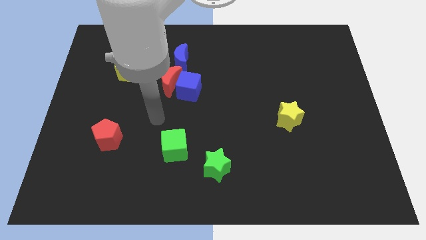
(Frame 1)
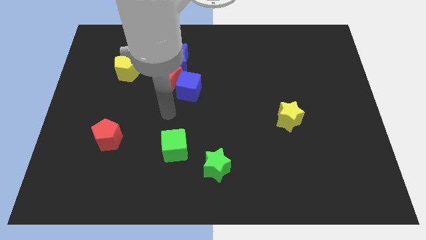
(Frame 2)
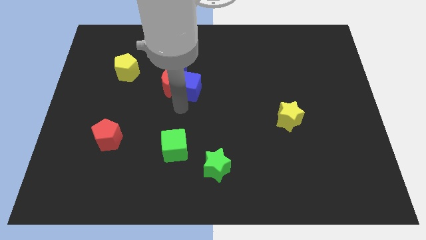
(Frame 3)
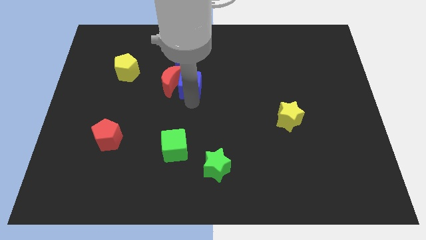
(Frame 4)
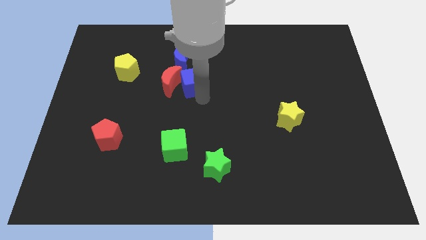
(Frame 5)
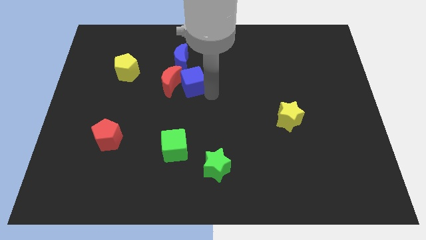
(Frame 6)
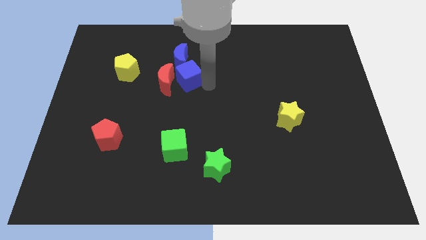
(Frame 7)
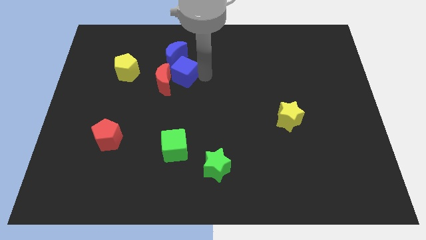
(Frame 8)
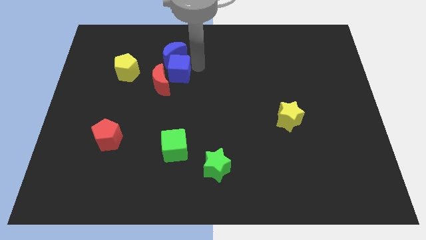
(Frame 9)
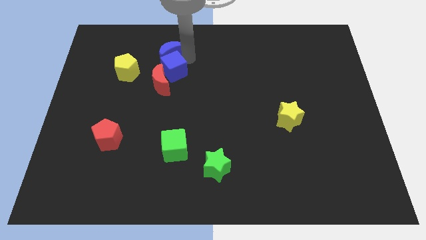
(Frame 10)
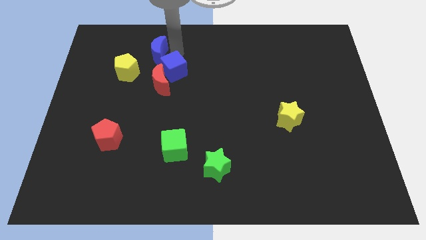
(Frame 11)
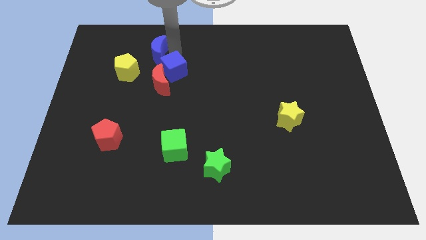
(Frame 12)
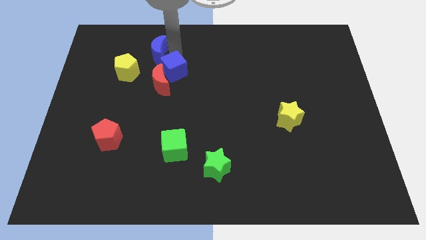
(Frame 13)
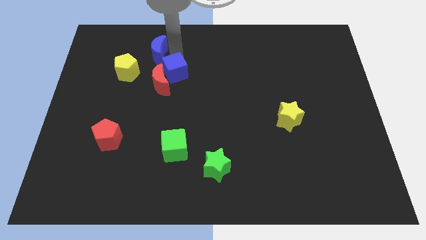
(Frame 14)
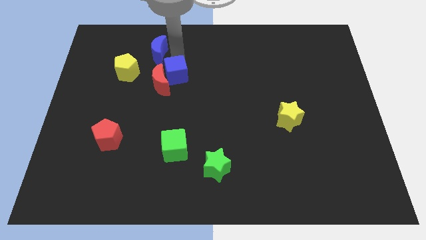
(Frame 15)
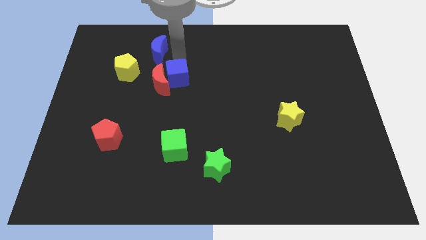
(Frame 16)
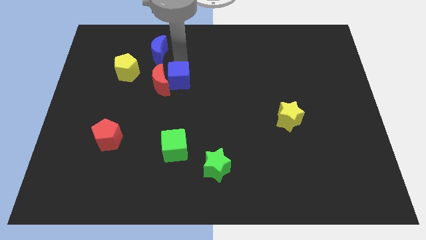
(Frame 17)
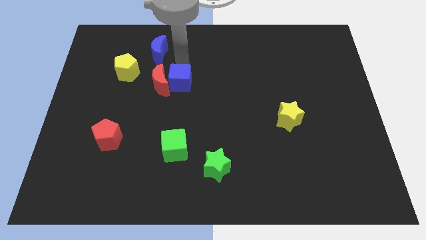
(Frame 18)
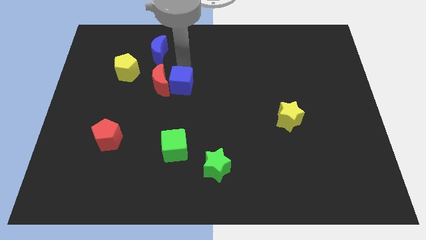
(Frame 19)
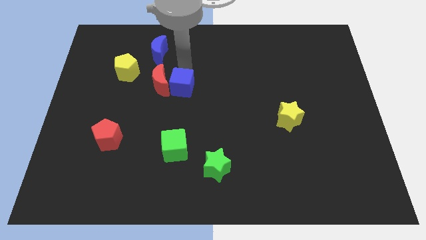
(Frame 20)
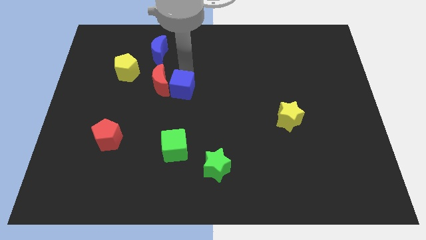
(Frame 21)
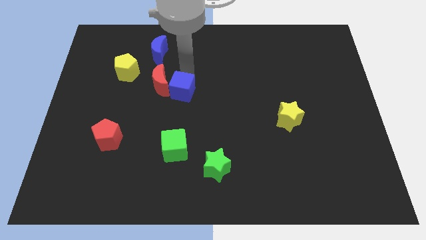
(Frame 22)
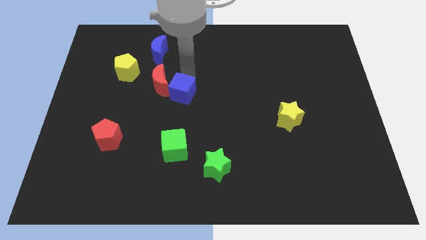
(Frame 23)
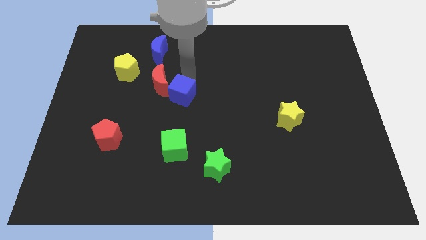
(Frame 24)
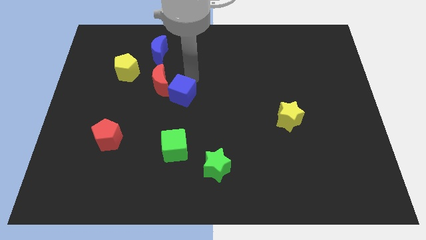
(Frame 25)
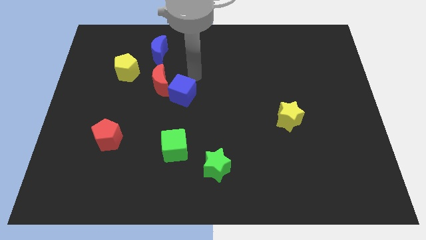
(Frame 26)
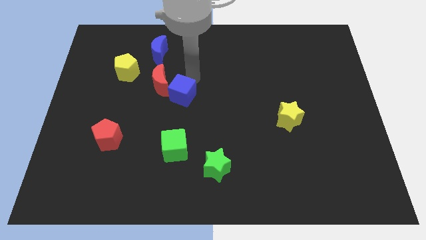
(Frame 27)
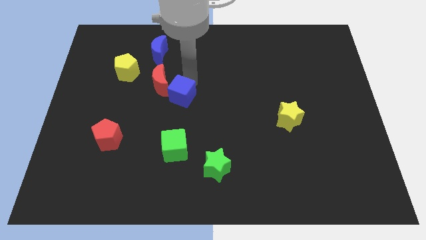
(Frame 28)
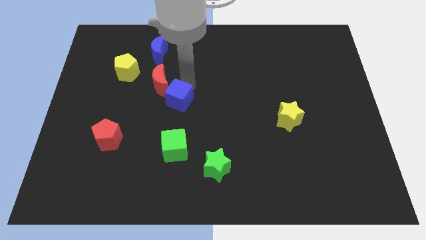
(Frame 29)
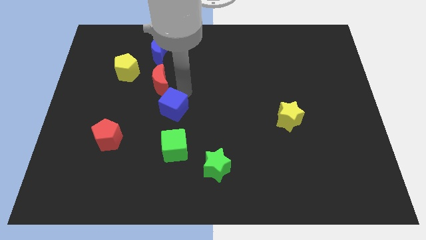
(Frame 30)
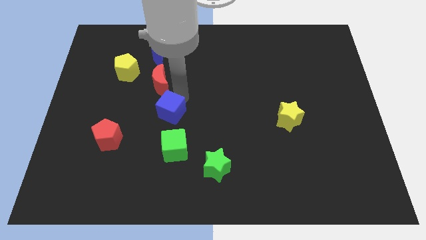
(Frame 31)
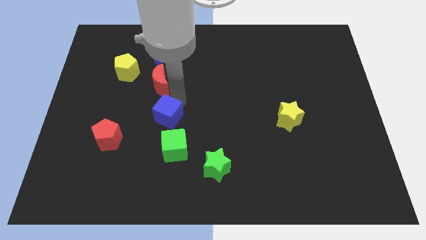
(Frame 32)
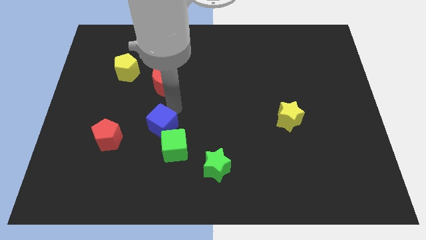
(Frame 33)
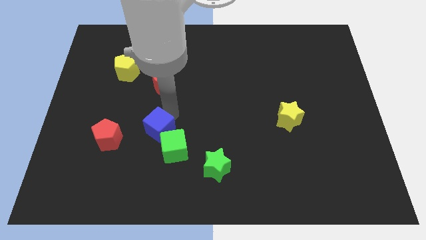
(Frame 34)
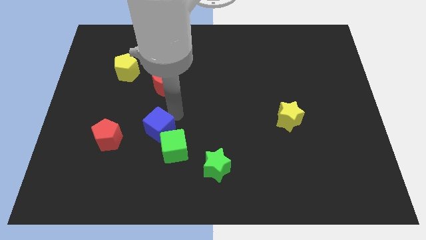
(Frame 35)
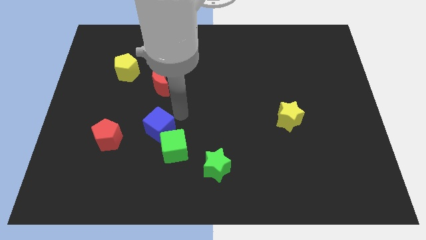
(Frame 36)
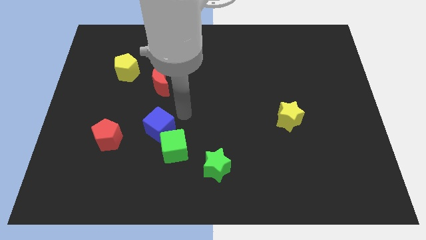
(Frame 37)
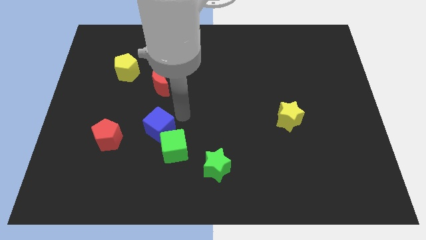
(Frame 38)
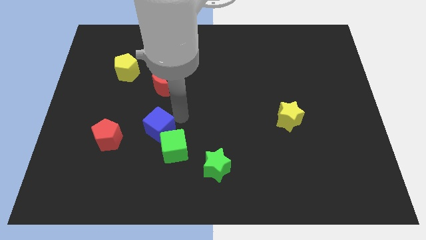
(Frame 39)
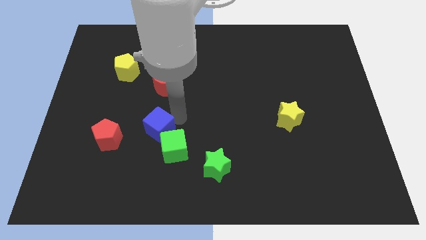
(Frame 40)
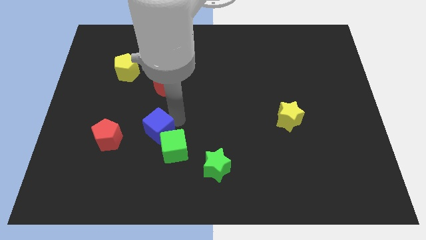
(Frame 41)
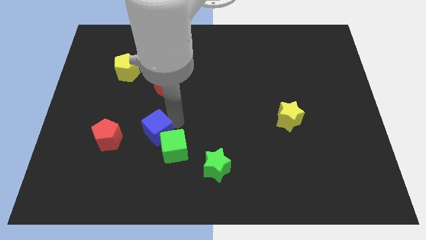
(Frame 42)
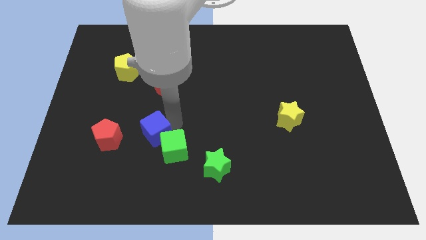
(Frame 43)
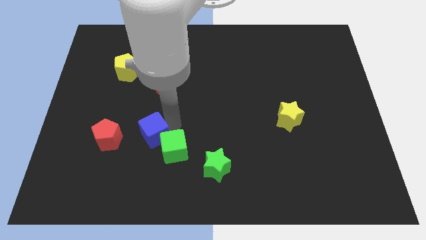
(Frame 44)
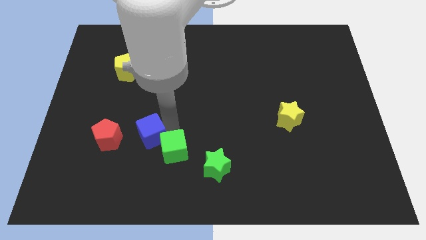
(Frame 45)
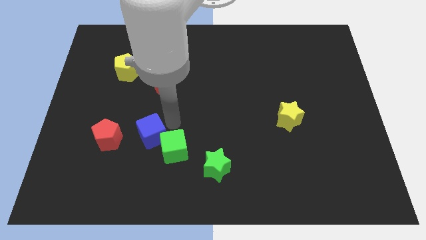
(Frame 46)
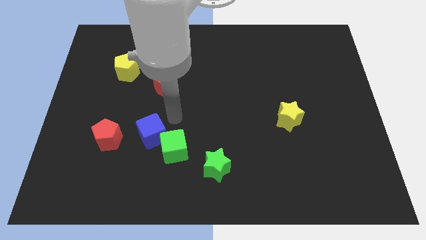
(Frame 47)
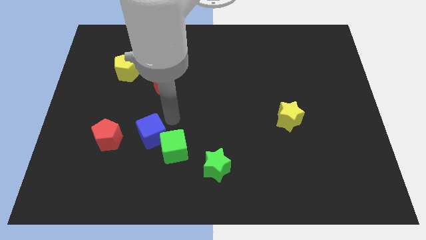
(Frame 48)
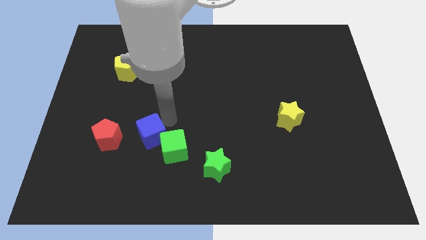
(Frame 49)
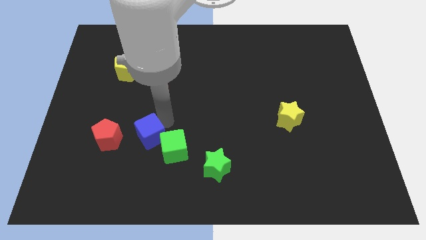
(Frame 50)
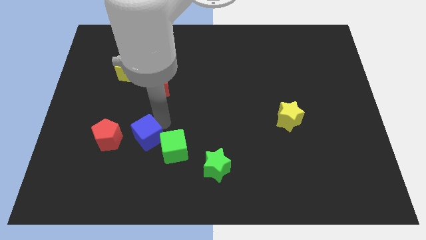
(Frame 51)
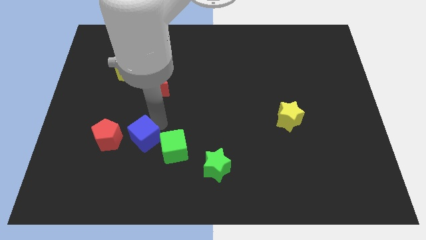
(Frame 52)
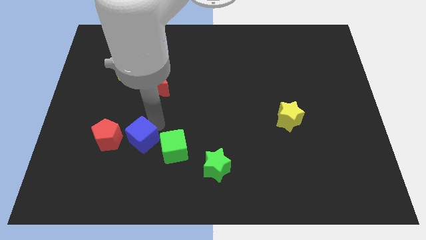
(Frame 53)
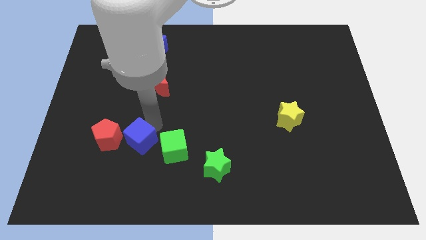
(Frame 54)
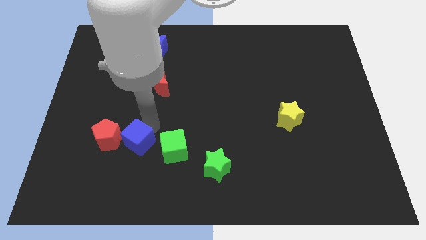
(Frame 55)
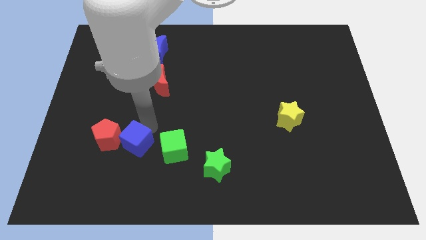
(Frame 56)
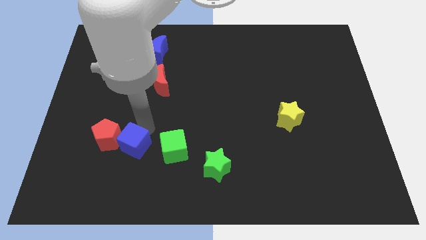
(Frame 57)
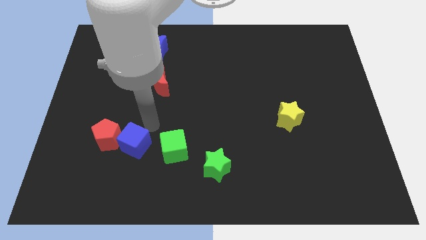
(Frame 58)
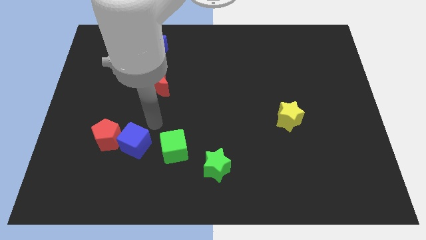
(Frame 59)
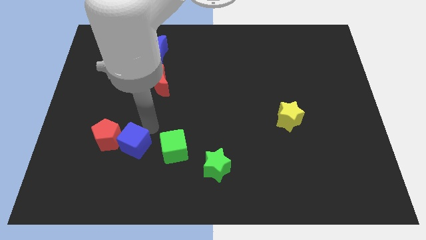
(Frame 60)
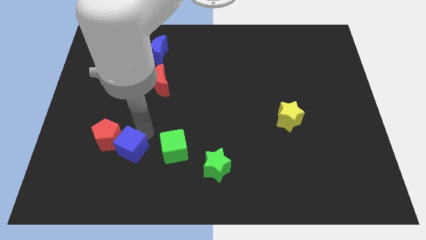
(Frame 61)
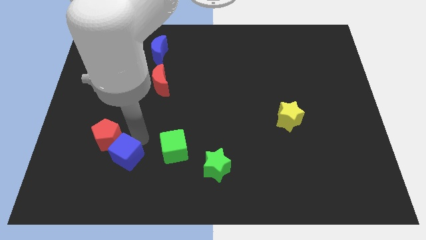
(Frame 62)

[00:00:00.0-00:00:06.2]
put the blue cube to the bottom side of the red pentagon
